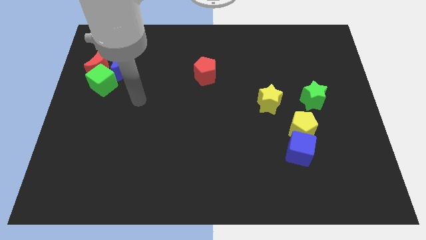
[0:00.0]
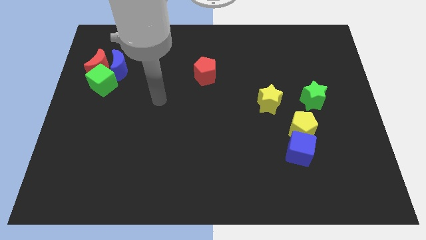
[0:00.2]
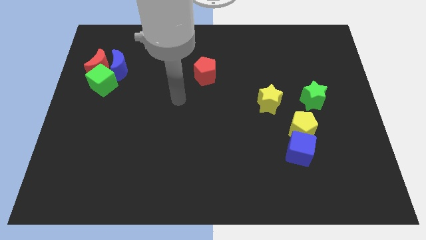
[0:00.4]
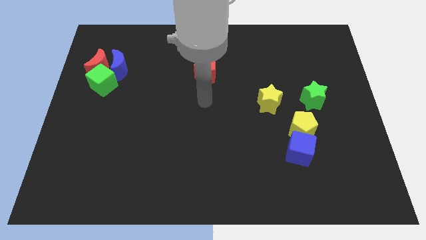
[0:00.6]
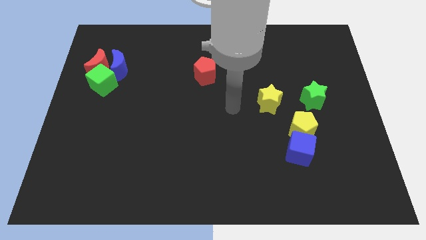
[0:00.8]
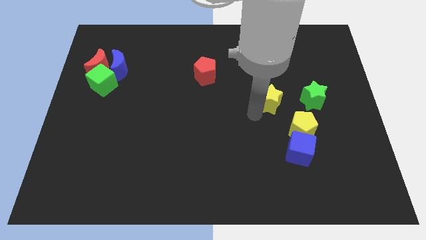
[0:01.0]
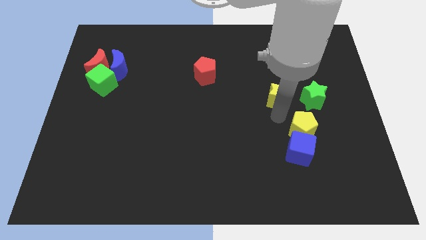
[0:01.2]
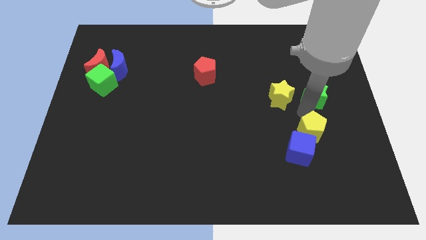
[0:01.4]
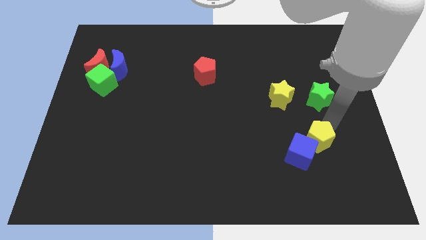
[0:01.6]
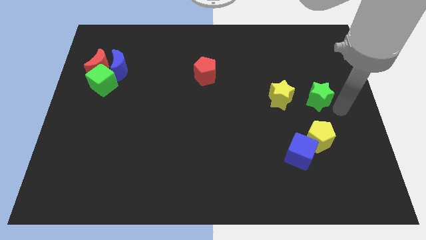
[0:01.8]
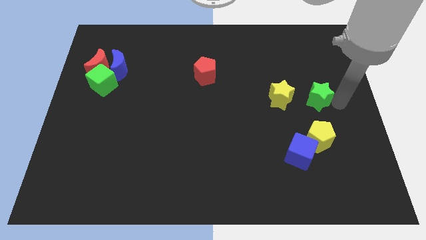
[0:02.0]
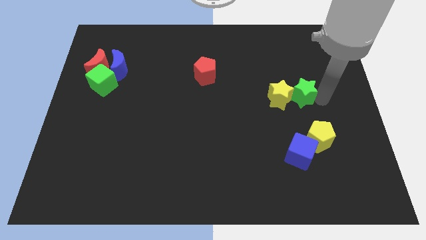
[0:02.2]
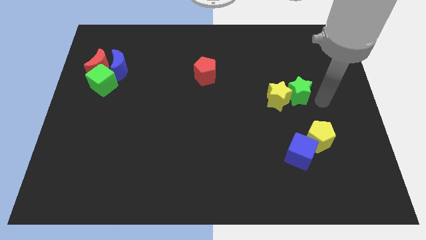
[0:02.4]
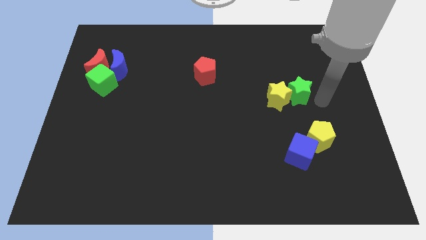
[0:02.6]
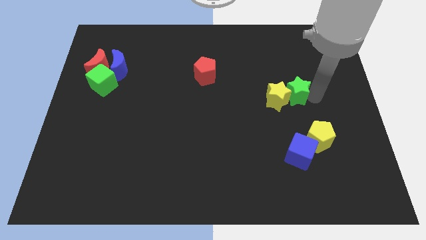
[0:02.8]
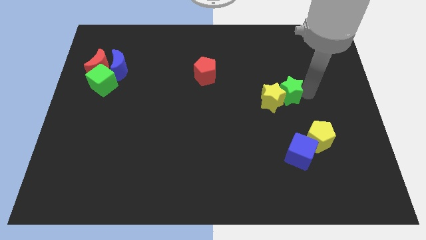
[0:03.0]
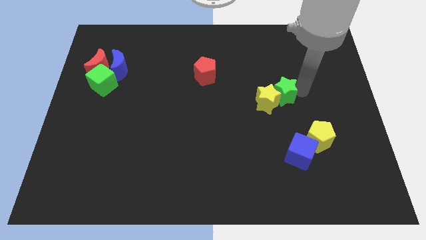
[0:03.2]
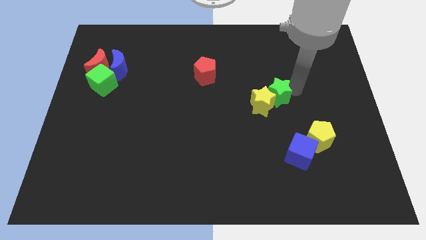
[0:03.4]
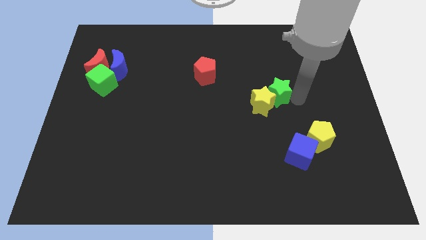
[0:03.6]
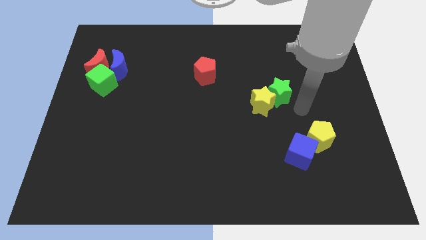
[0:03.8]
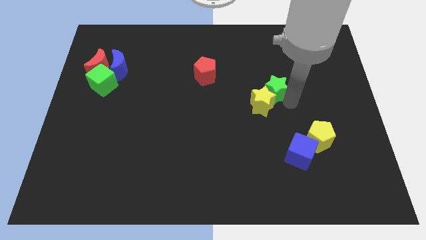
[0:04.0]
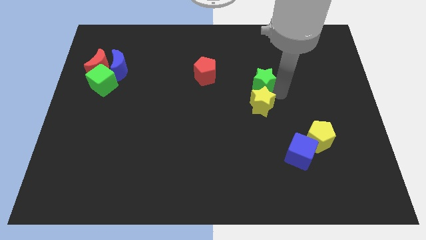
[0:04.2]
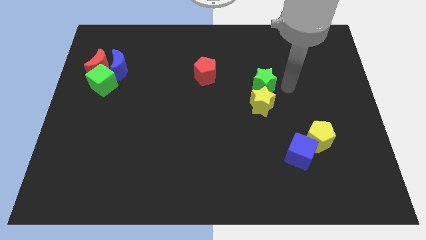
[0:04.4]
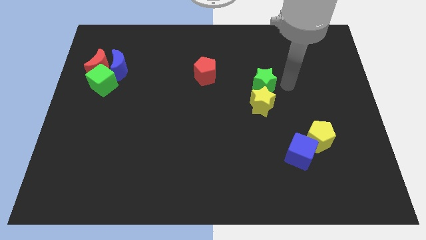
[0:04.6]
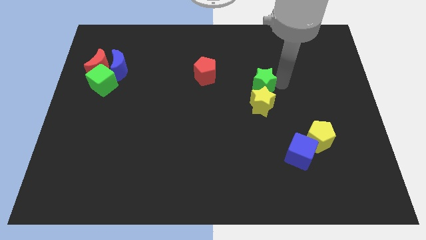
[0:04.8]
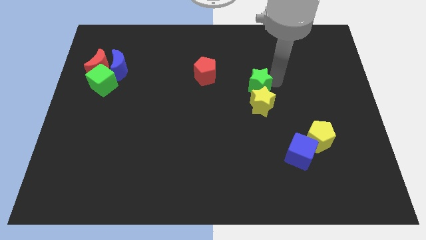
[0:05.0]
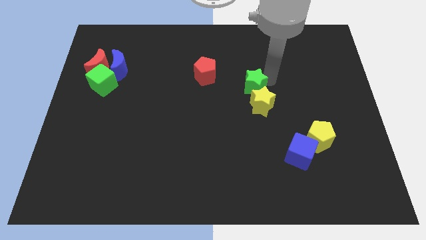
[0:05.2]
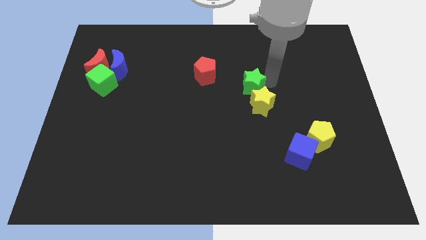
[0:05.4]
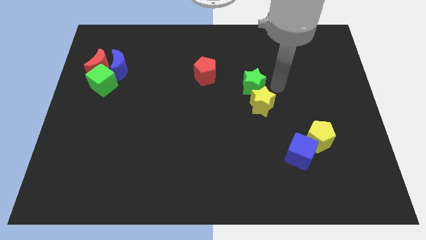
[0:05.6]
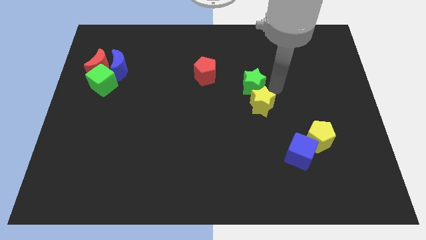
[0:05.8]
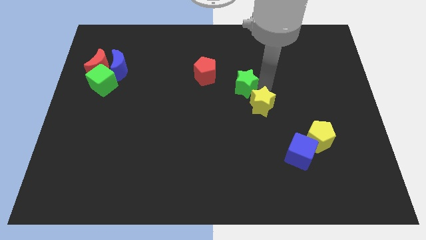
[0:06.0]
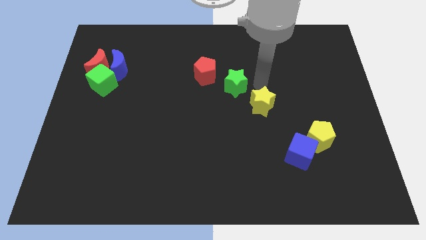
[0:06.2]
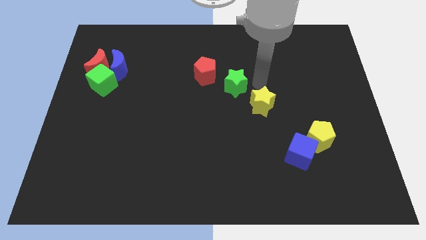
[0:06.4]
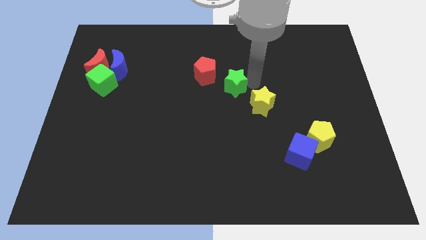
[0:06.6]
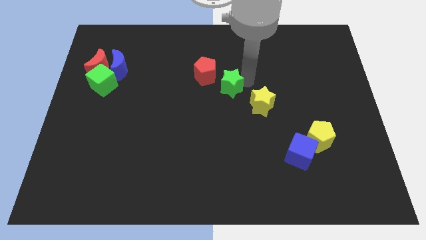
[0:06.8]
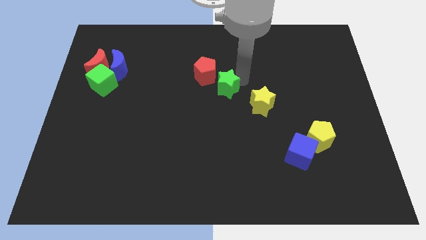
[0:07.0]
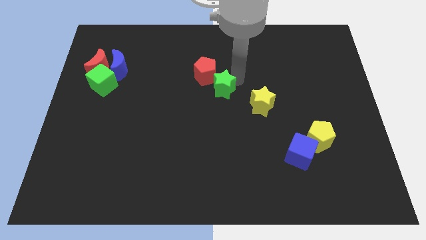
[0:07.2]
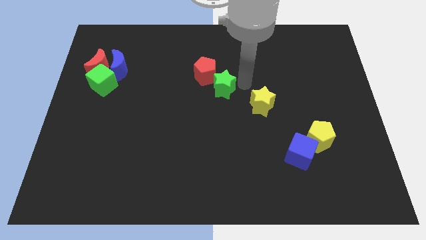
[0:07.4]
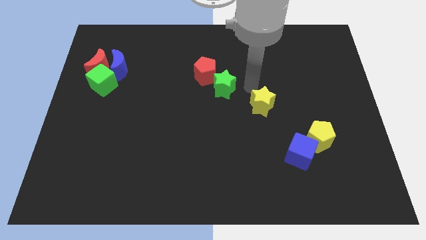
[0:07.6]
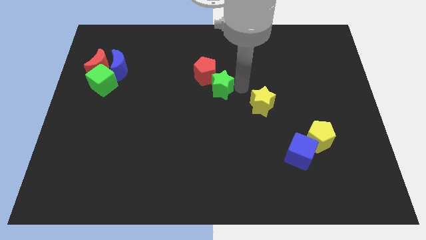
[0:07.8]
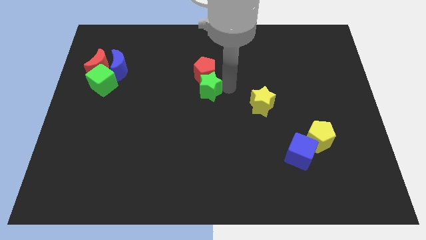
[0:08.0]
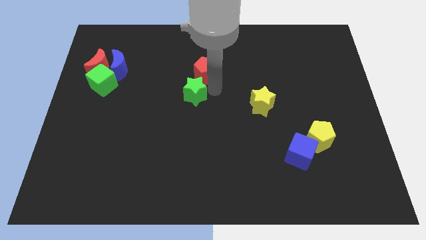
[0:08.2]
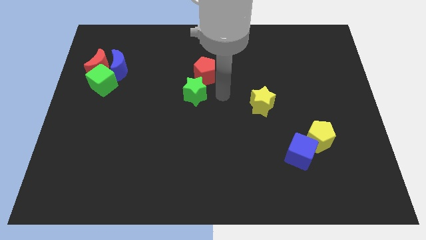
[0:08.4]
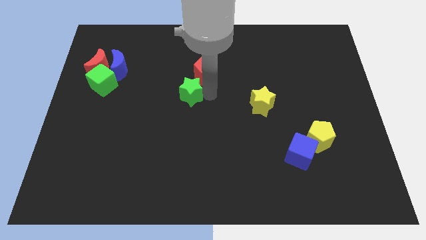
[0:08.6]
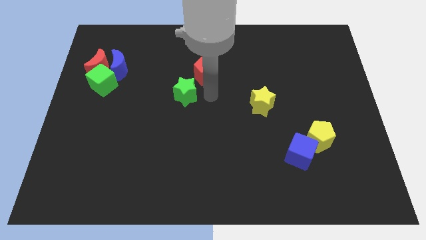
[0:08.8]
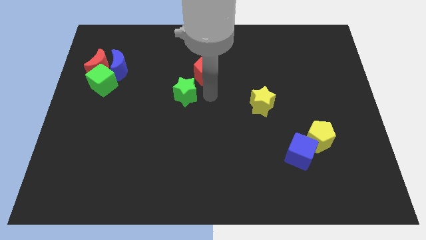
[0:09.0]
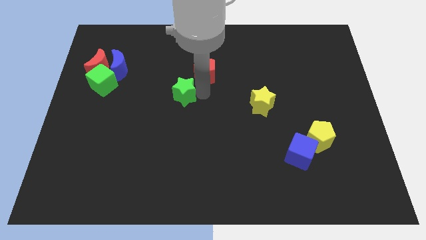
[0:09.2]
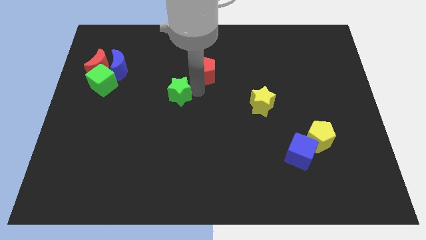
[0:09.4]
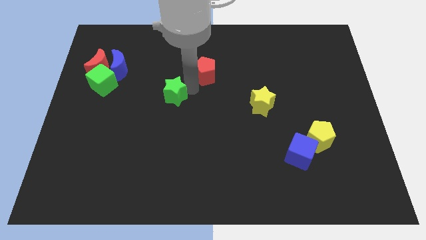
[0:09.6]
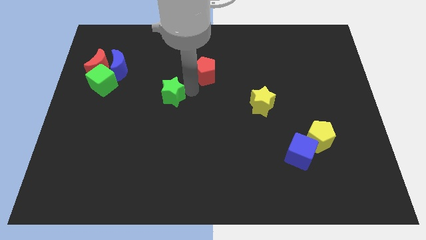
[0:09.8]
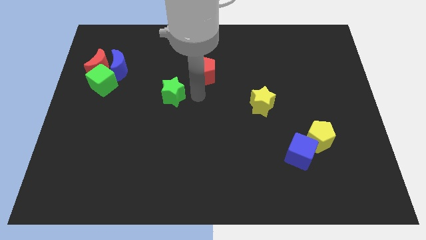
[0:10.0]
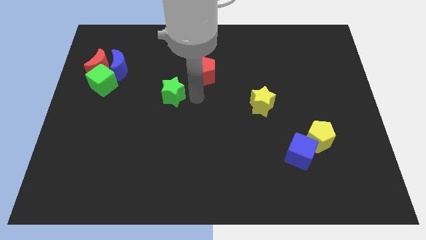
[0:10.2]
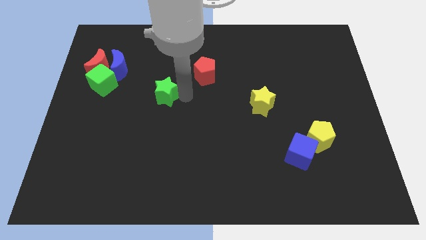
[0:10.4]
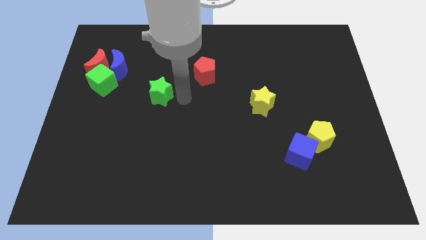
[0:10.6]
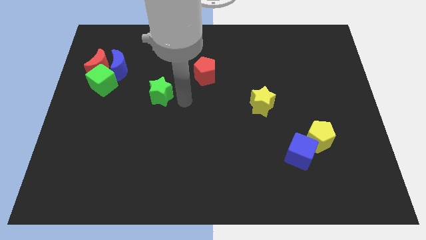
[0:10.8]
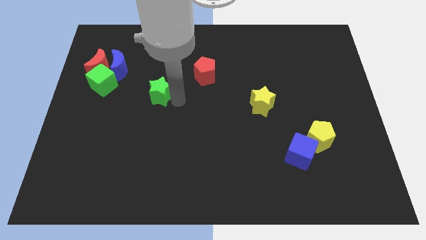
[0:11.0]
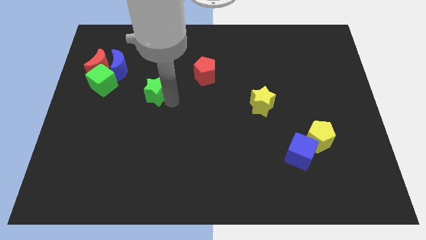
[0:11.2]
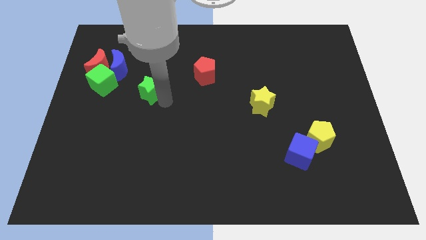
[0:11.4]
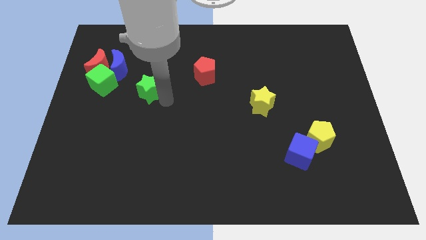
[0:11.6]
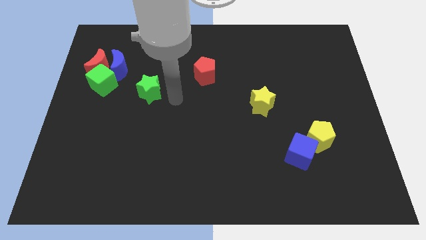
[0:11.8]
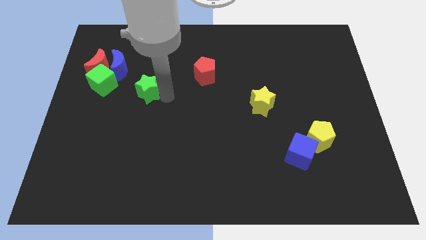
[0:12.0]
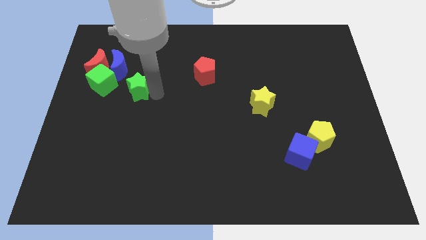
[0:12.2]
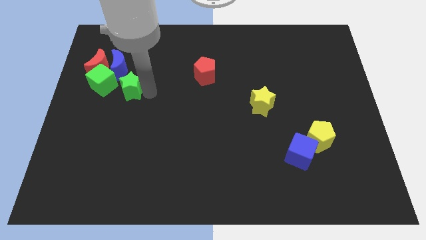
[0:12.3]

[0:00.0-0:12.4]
push the green star to the bottom right side of the red moon

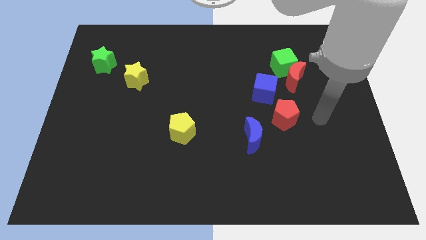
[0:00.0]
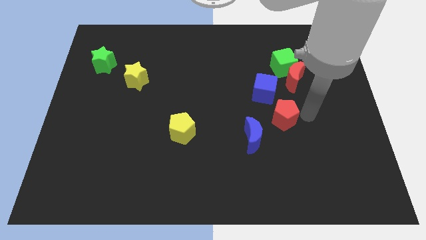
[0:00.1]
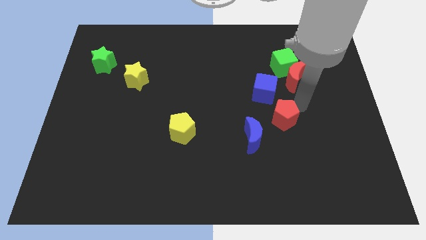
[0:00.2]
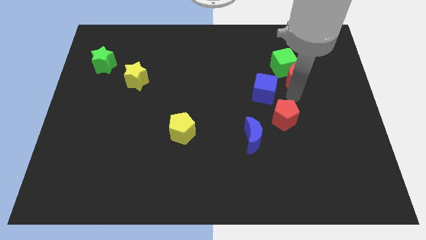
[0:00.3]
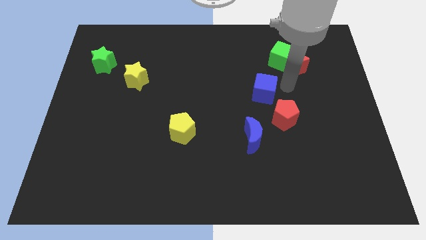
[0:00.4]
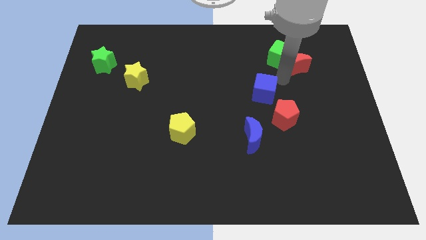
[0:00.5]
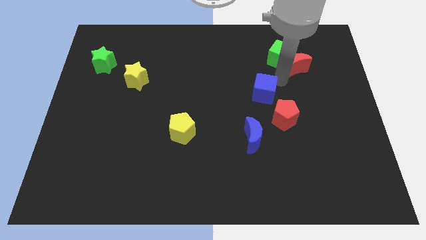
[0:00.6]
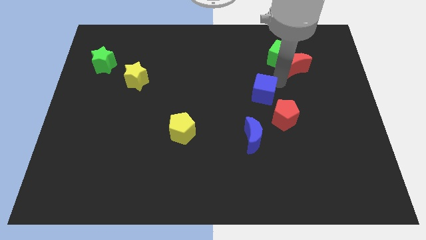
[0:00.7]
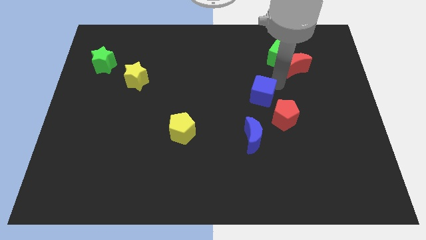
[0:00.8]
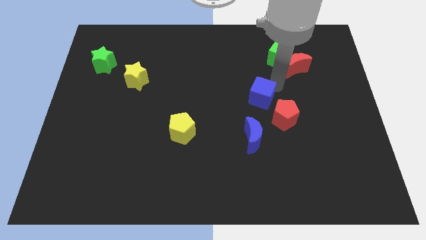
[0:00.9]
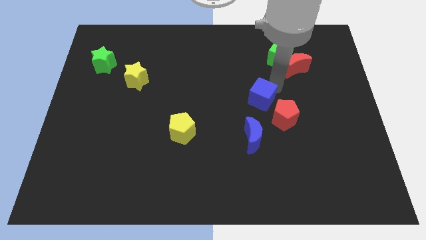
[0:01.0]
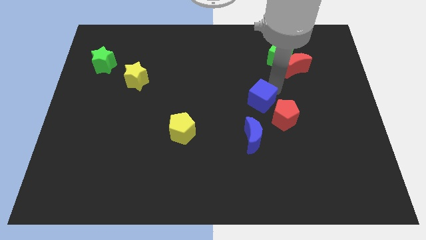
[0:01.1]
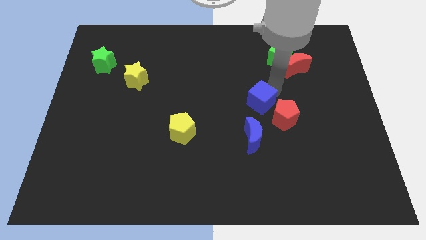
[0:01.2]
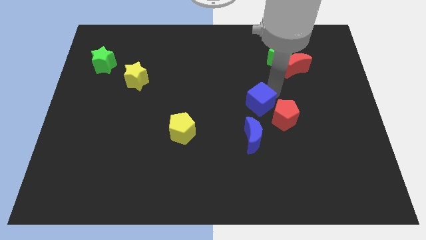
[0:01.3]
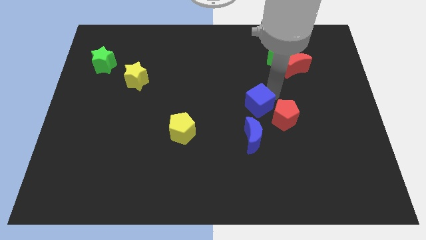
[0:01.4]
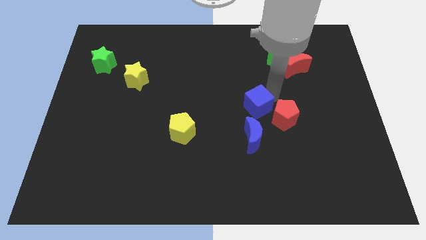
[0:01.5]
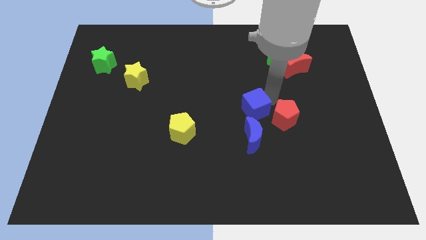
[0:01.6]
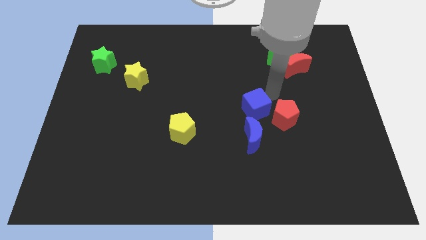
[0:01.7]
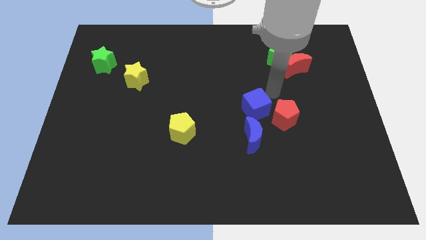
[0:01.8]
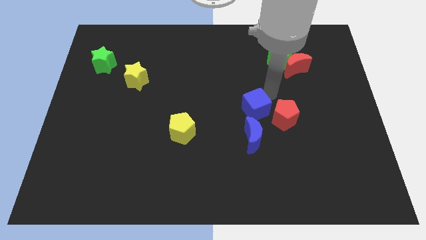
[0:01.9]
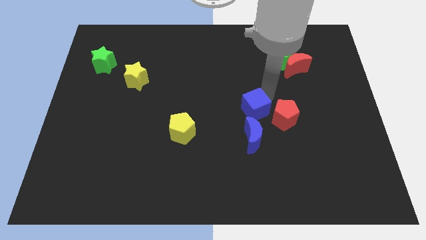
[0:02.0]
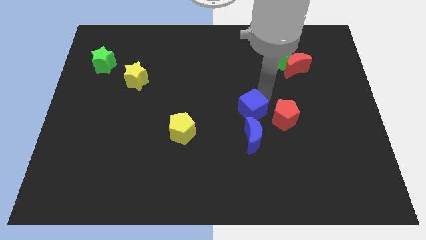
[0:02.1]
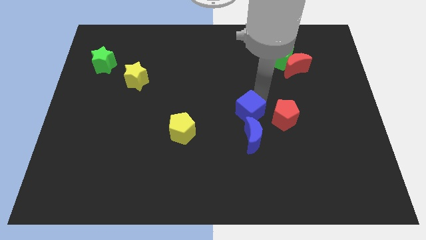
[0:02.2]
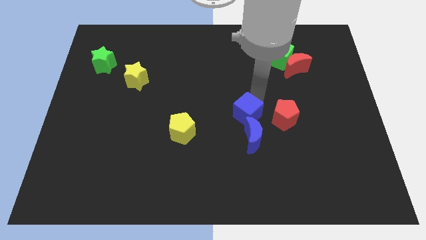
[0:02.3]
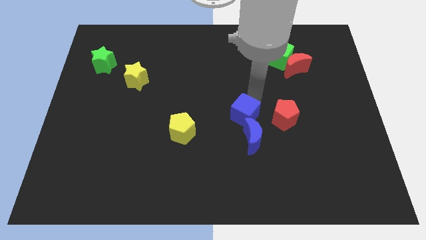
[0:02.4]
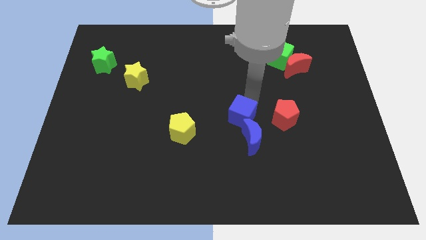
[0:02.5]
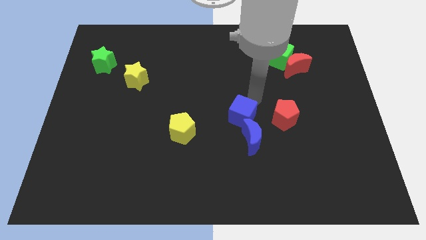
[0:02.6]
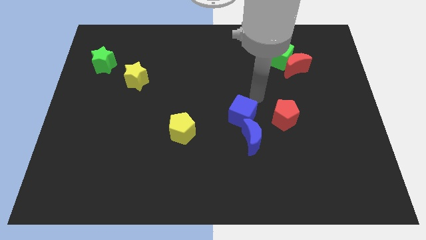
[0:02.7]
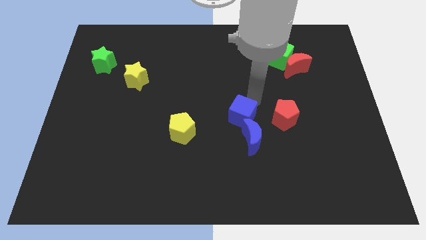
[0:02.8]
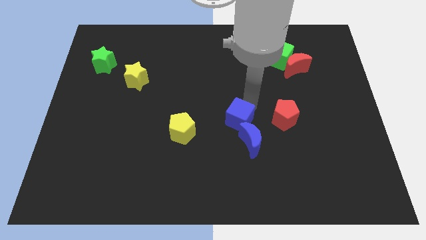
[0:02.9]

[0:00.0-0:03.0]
move the blue cube right of the yellow pentagon
